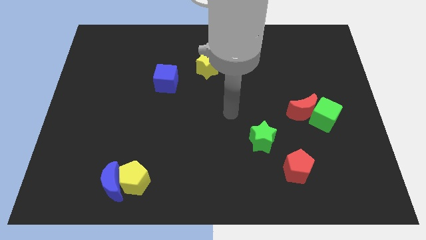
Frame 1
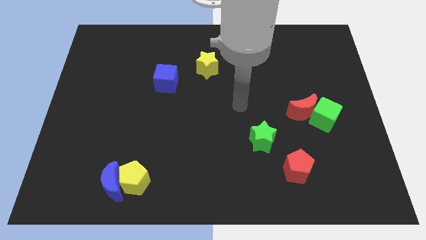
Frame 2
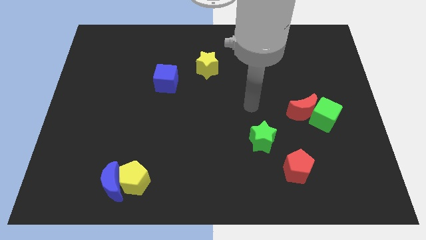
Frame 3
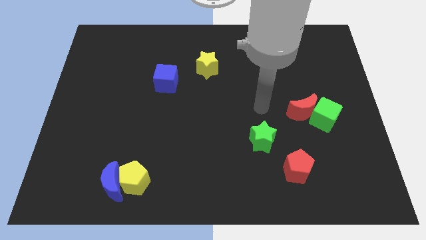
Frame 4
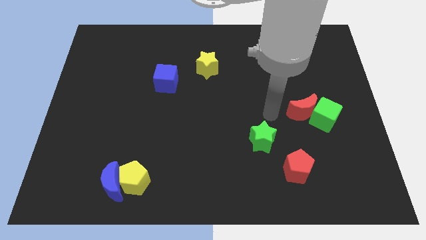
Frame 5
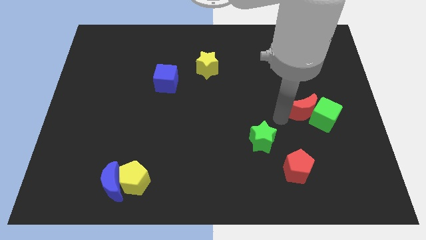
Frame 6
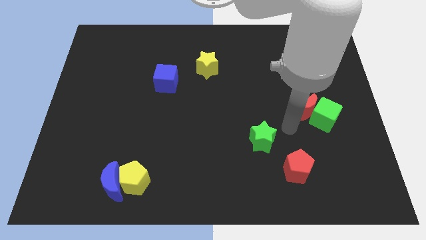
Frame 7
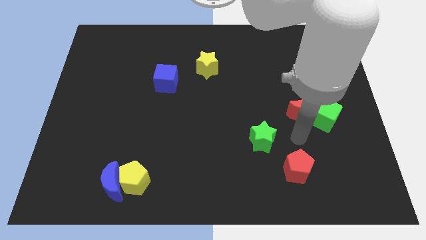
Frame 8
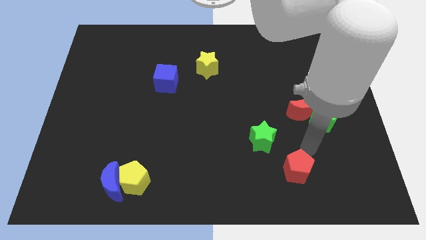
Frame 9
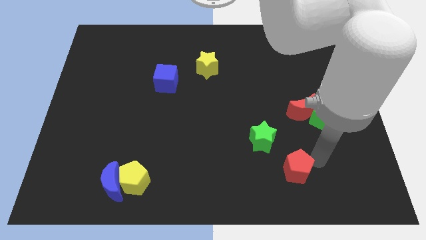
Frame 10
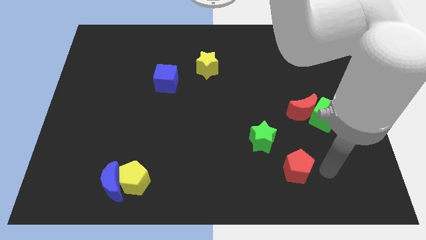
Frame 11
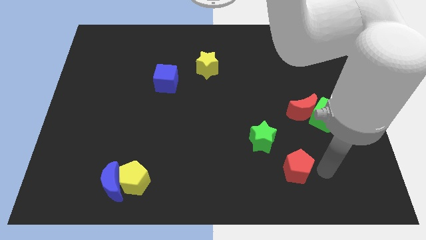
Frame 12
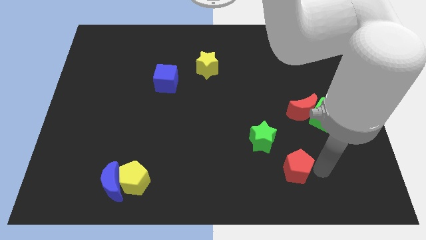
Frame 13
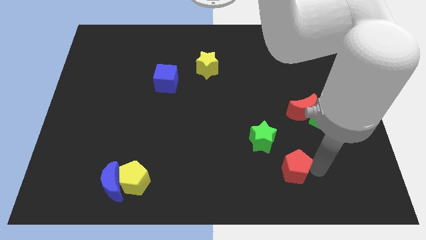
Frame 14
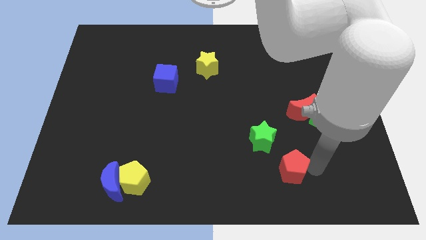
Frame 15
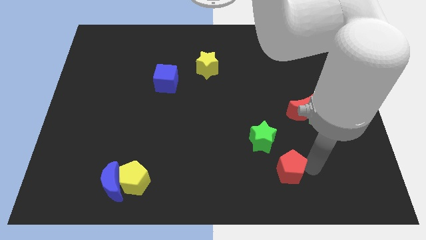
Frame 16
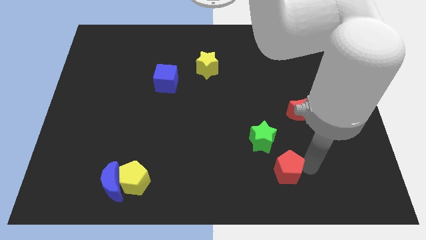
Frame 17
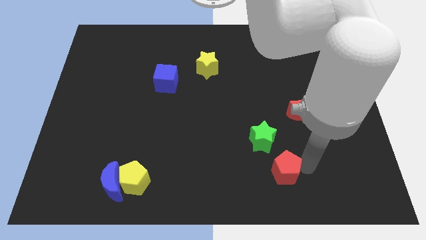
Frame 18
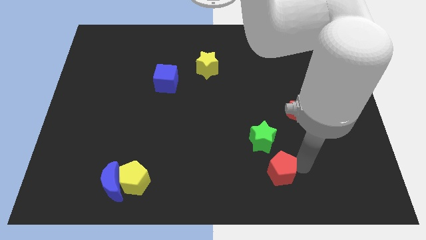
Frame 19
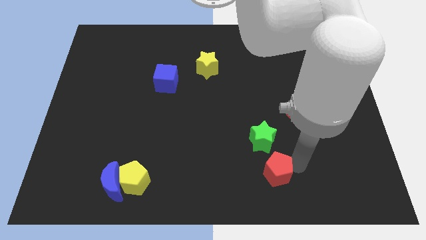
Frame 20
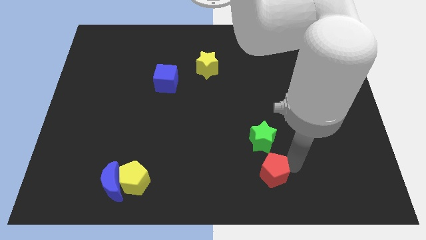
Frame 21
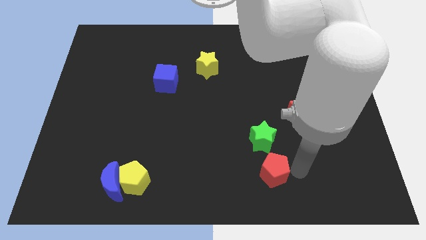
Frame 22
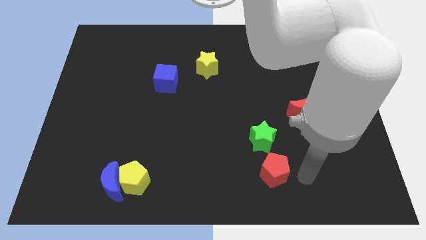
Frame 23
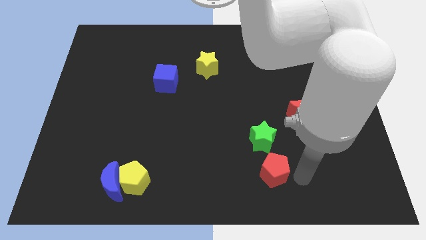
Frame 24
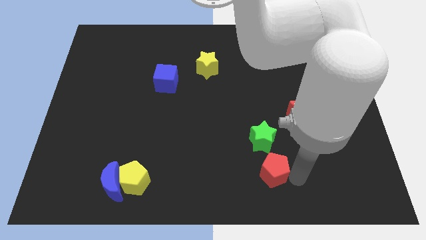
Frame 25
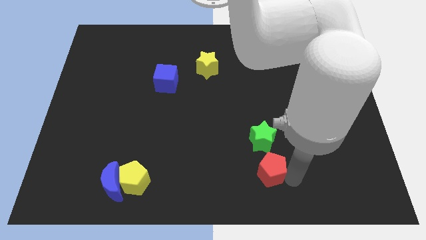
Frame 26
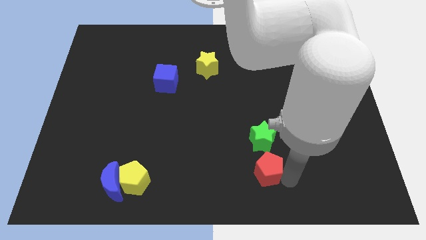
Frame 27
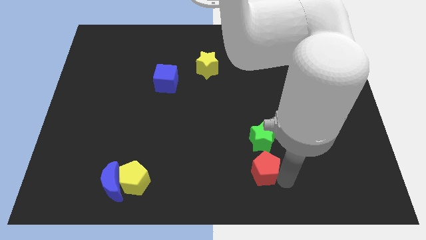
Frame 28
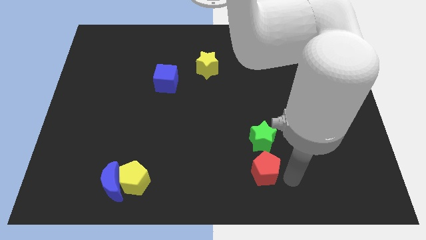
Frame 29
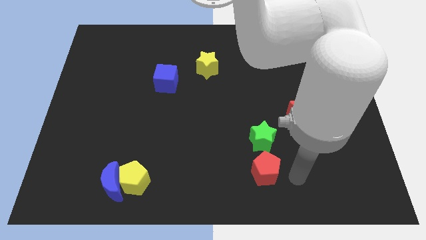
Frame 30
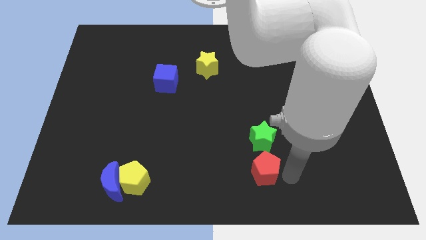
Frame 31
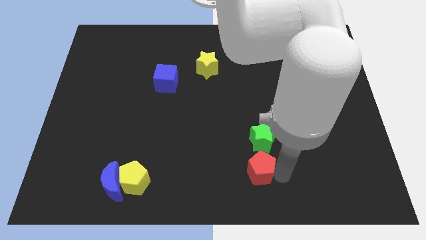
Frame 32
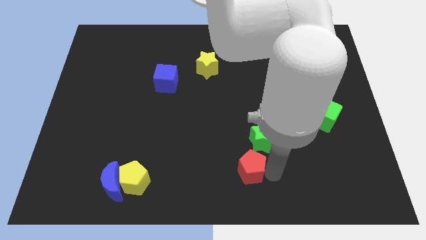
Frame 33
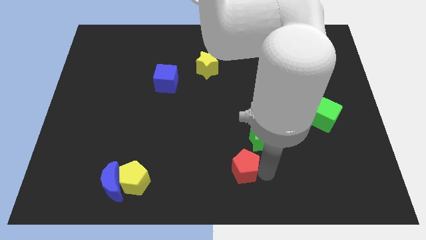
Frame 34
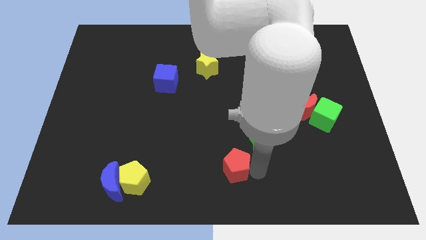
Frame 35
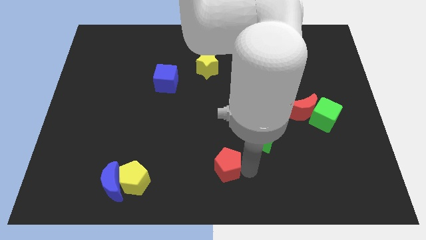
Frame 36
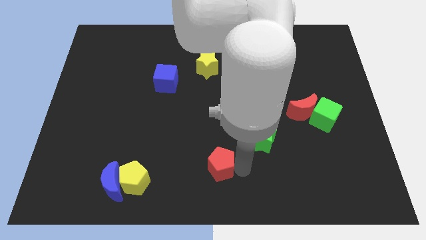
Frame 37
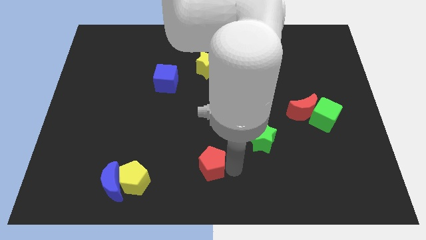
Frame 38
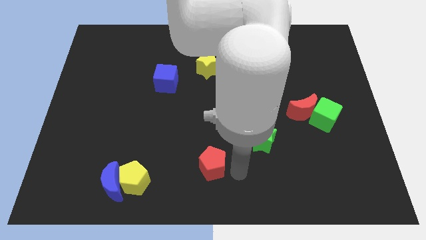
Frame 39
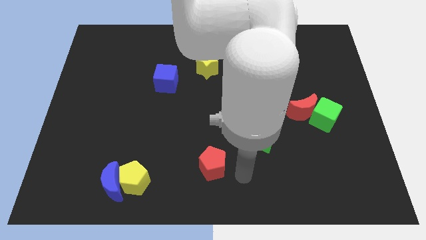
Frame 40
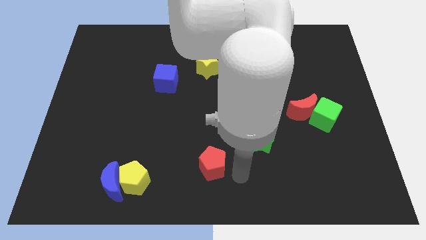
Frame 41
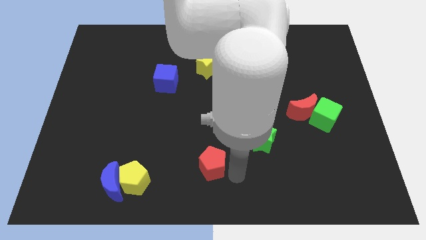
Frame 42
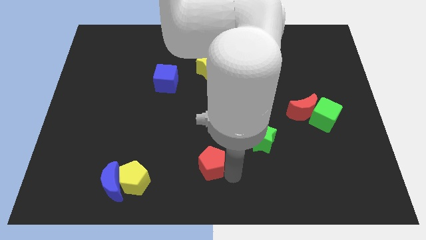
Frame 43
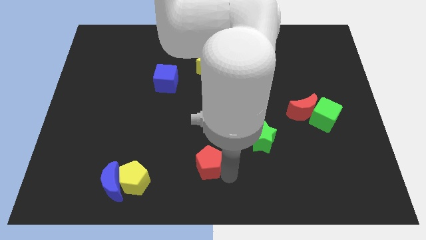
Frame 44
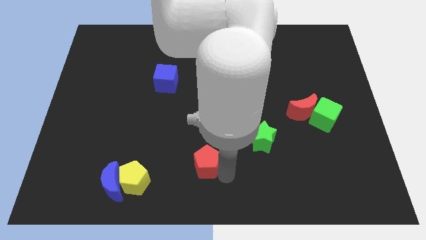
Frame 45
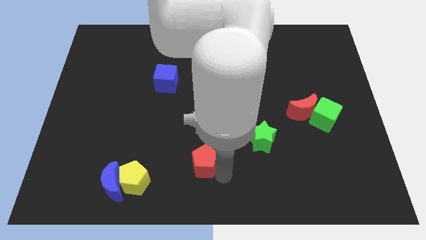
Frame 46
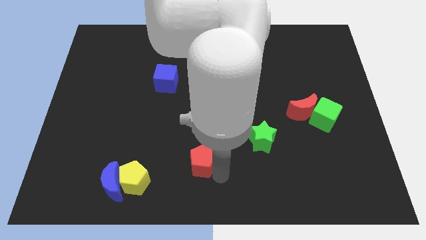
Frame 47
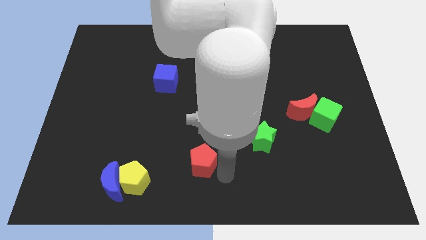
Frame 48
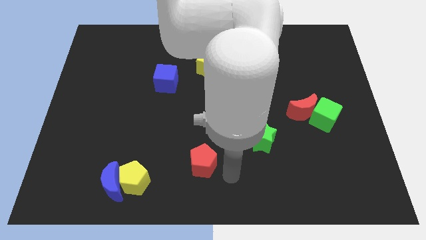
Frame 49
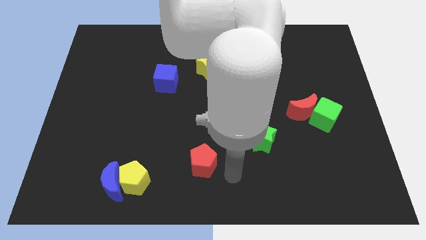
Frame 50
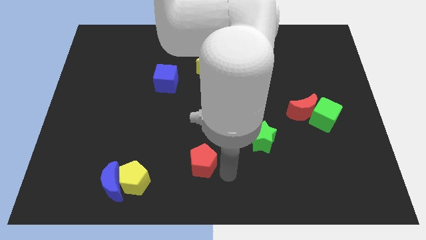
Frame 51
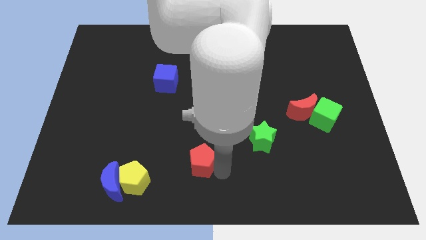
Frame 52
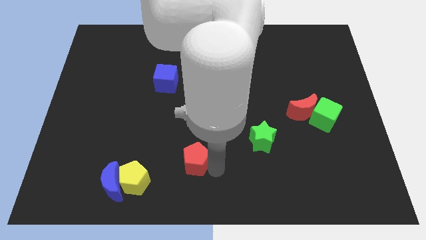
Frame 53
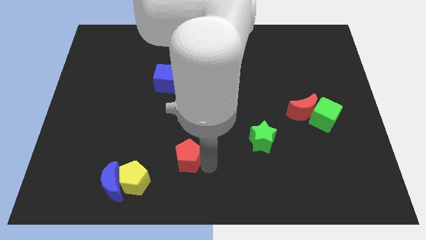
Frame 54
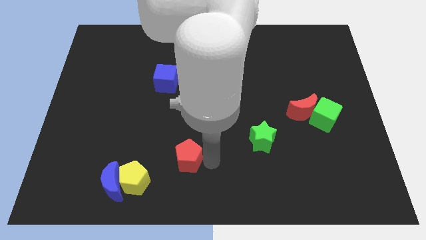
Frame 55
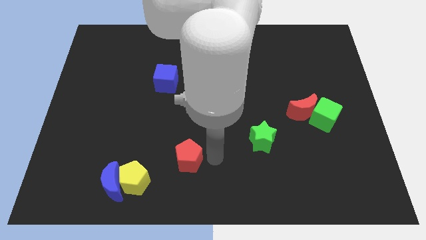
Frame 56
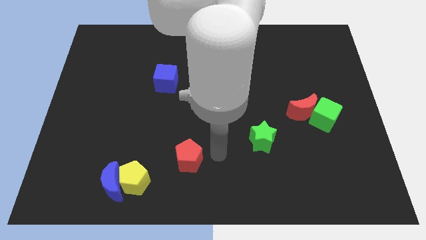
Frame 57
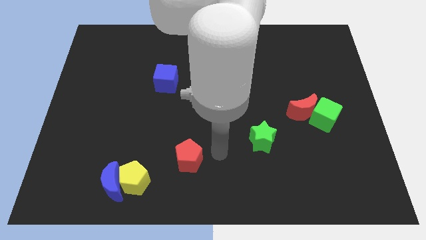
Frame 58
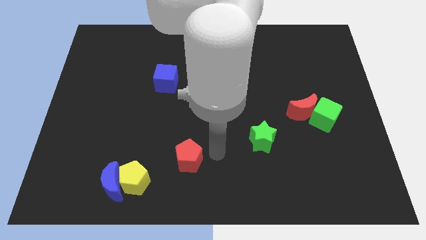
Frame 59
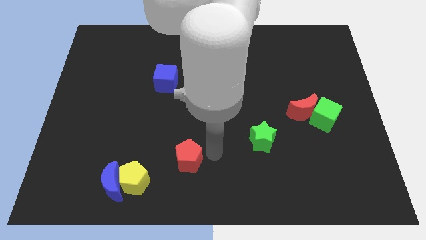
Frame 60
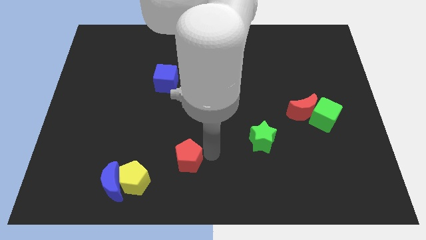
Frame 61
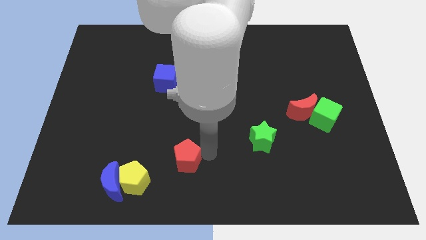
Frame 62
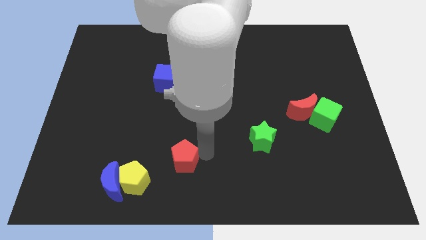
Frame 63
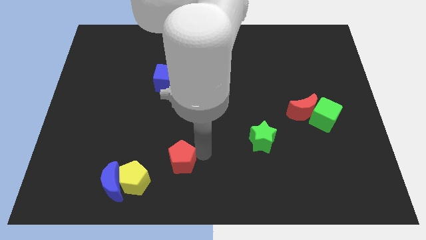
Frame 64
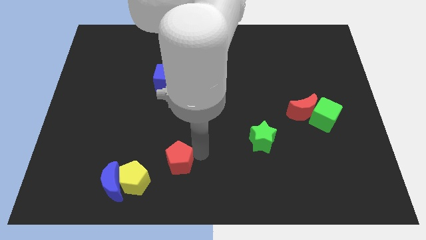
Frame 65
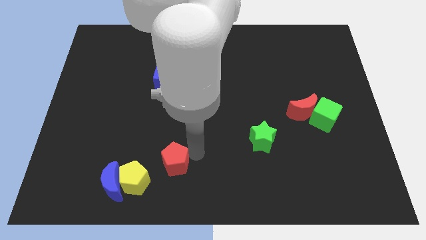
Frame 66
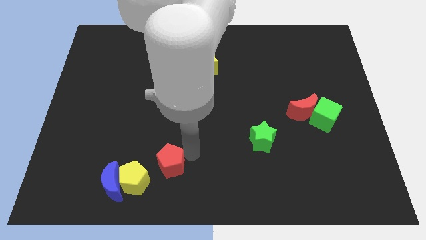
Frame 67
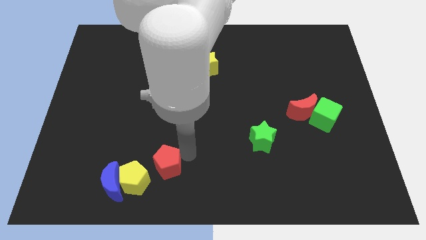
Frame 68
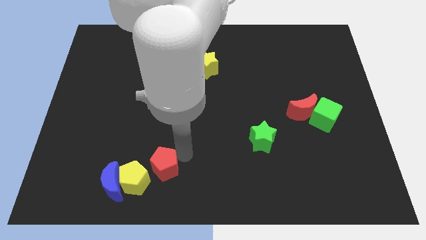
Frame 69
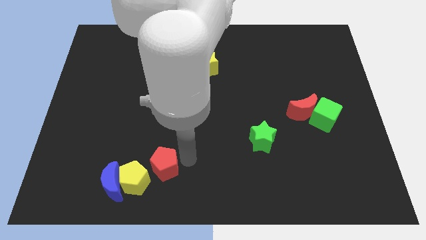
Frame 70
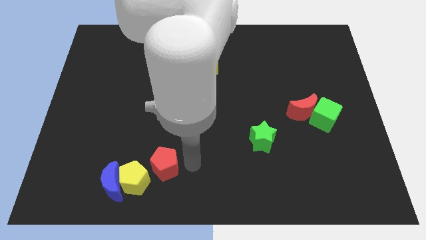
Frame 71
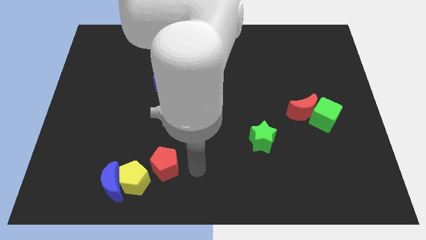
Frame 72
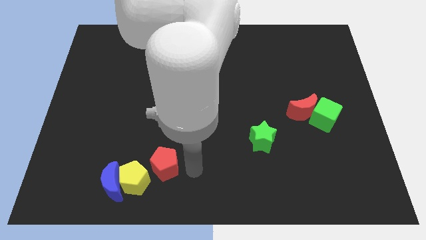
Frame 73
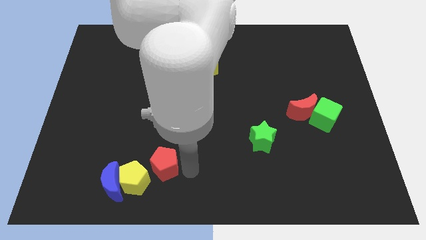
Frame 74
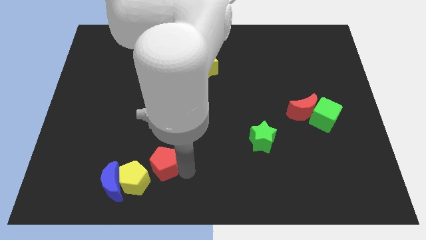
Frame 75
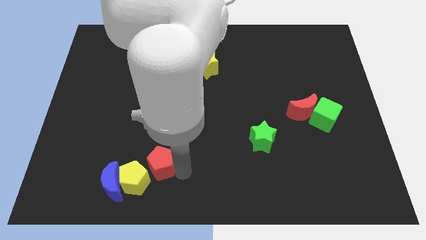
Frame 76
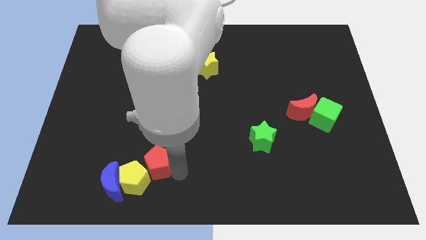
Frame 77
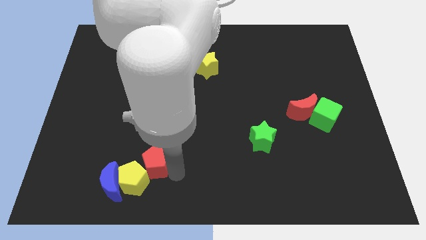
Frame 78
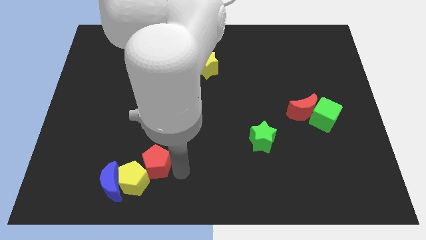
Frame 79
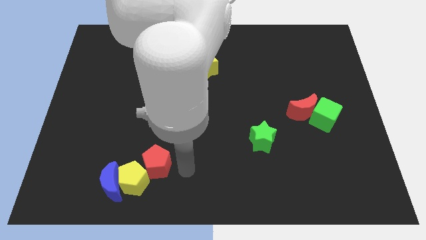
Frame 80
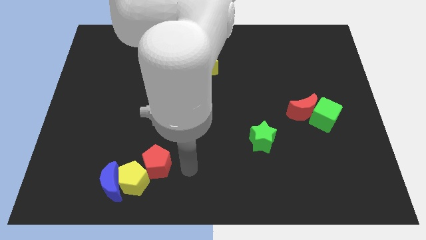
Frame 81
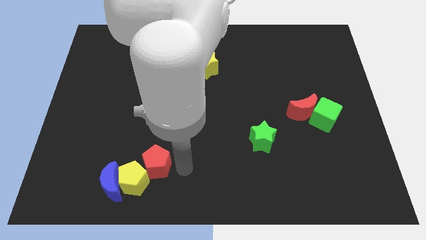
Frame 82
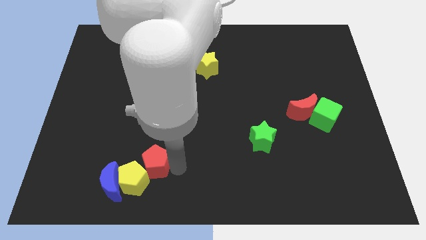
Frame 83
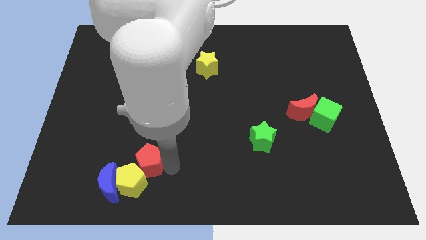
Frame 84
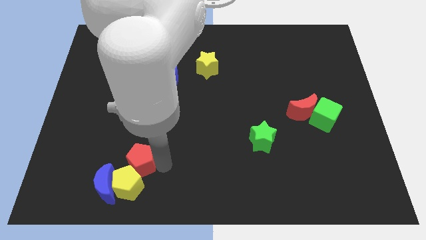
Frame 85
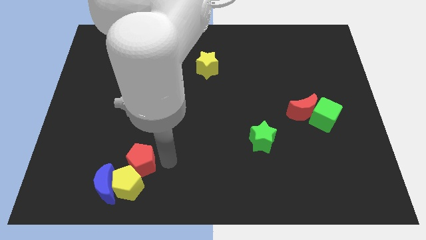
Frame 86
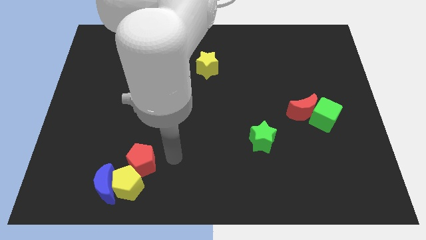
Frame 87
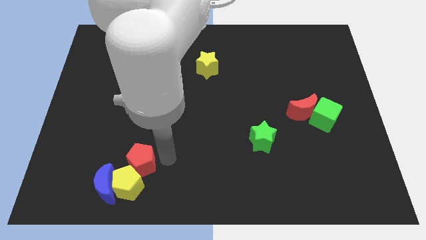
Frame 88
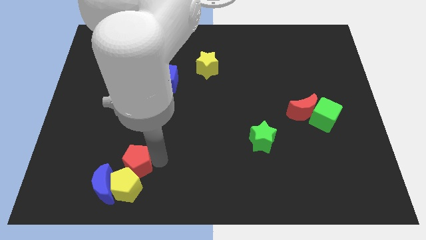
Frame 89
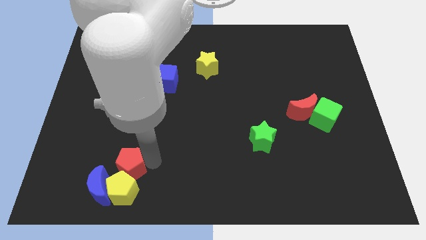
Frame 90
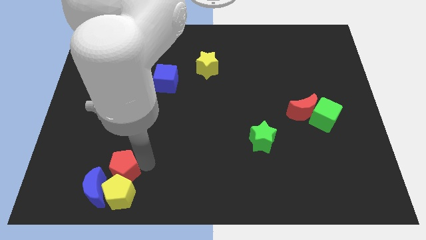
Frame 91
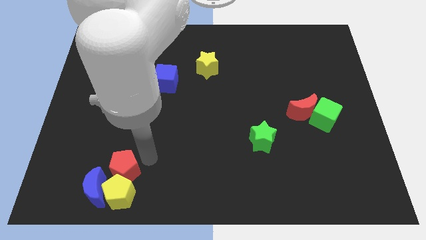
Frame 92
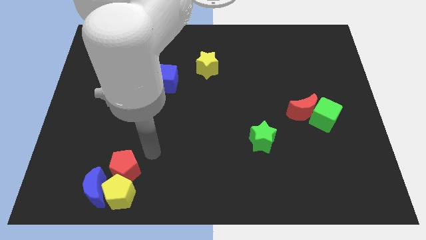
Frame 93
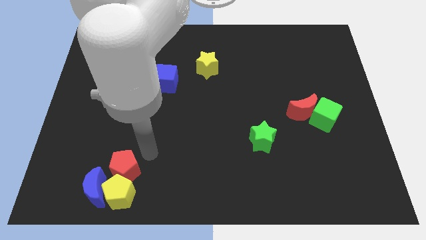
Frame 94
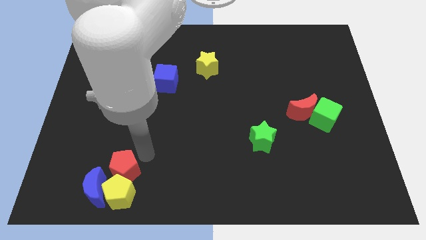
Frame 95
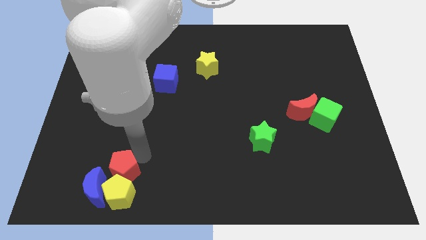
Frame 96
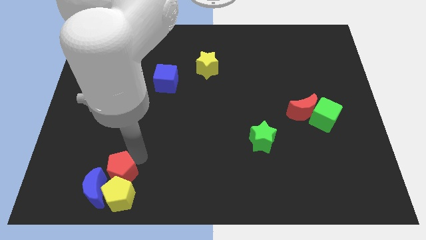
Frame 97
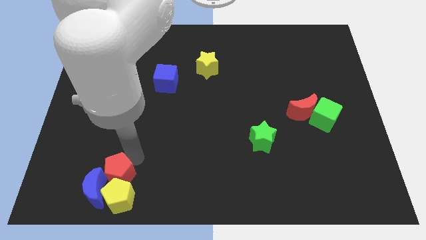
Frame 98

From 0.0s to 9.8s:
push the red pentagon close to the blue moon
